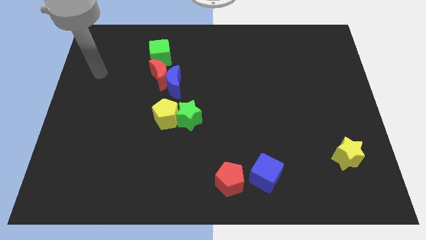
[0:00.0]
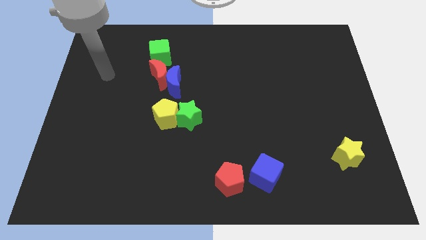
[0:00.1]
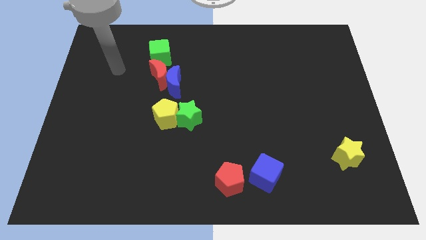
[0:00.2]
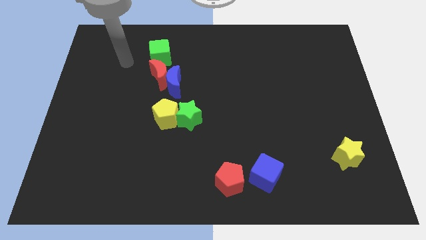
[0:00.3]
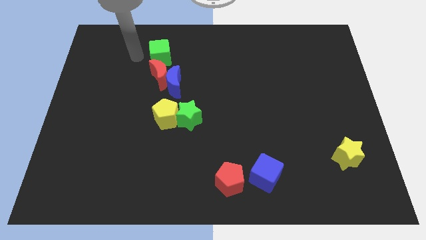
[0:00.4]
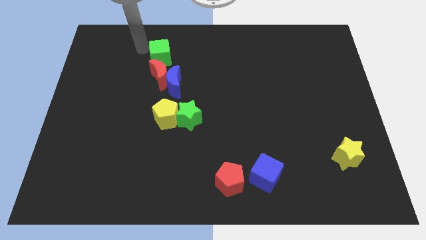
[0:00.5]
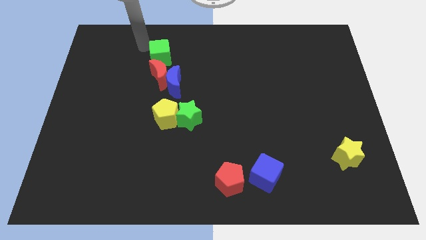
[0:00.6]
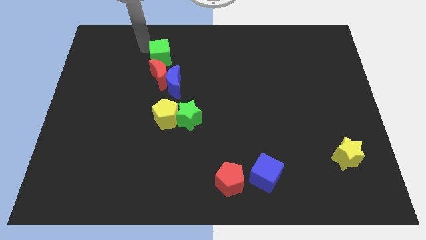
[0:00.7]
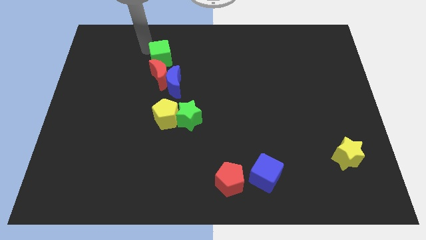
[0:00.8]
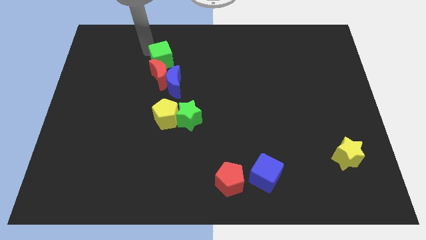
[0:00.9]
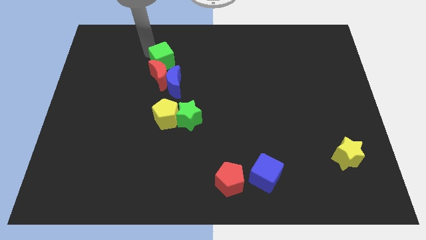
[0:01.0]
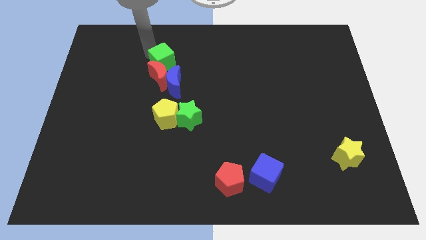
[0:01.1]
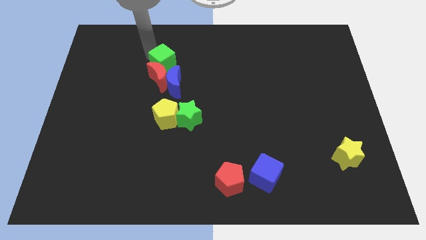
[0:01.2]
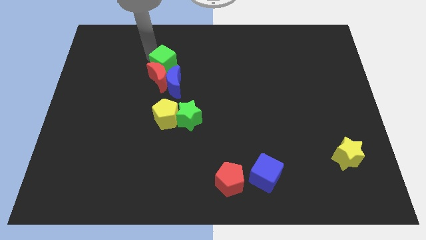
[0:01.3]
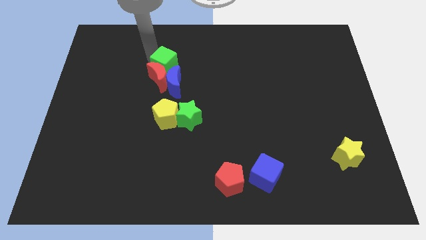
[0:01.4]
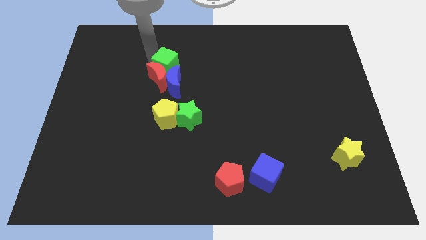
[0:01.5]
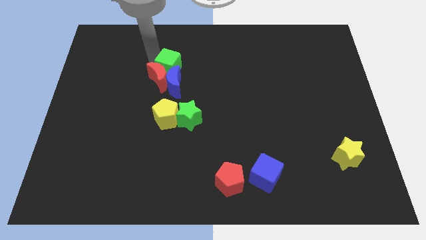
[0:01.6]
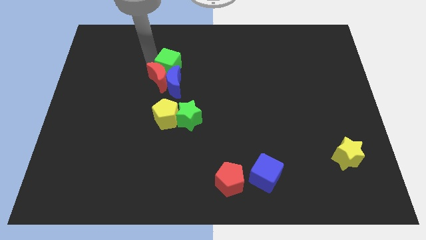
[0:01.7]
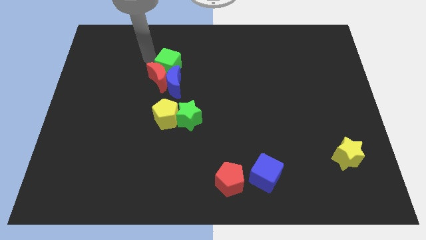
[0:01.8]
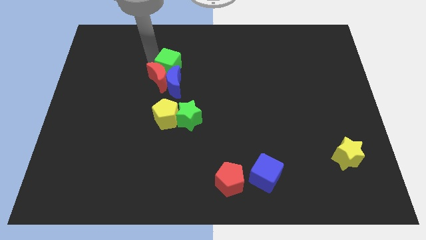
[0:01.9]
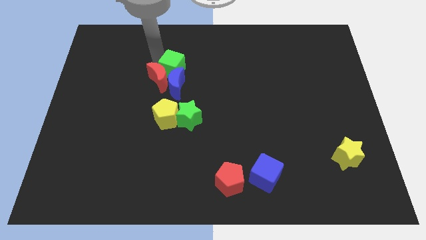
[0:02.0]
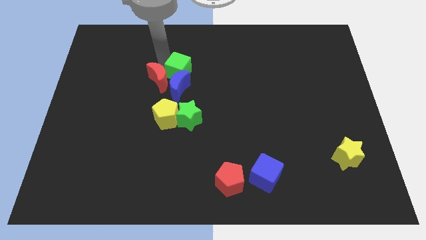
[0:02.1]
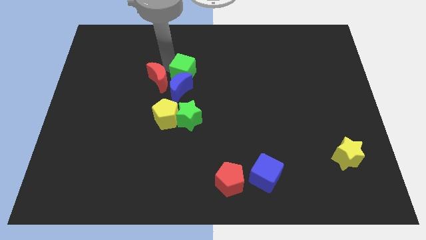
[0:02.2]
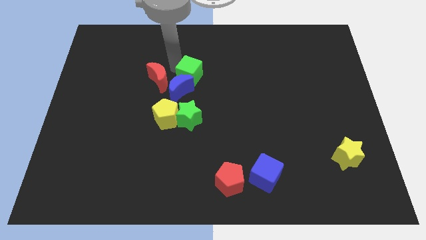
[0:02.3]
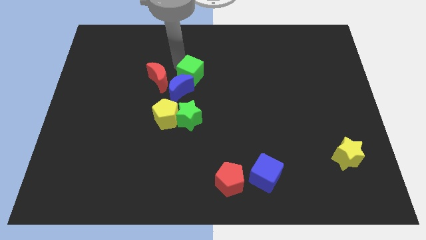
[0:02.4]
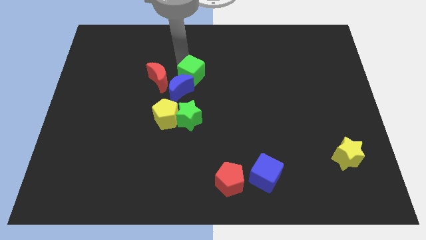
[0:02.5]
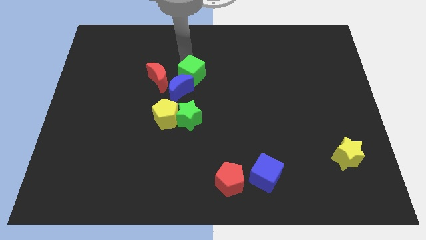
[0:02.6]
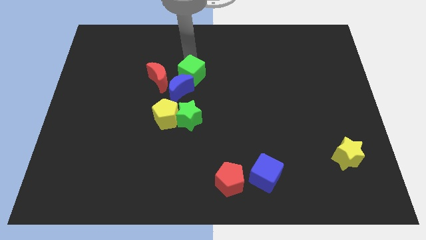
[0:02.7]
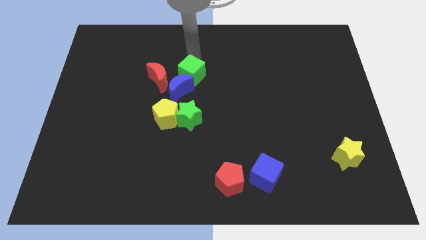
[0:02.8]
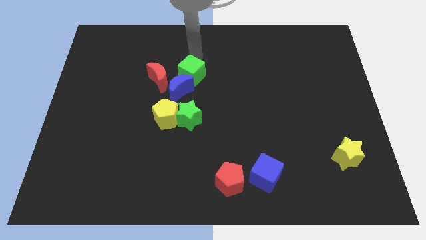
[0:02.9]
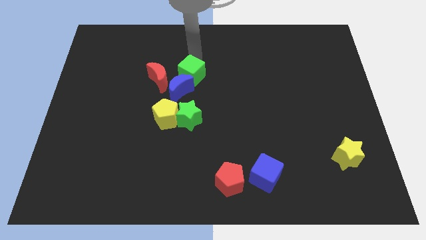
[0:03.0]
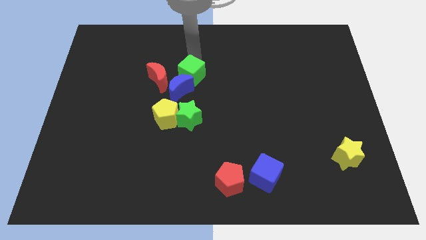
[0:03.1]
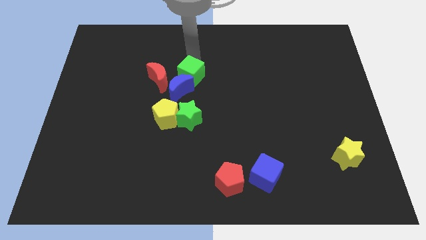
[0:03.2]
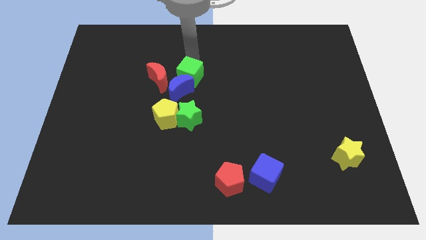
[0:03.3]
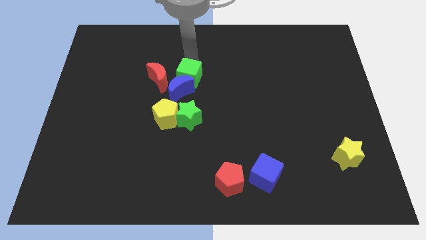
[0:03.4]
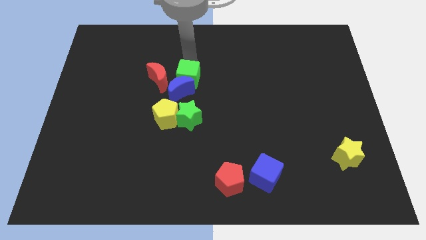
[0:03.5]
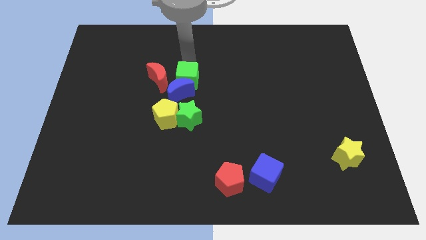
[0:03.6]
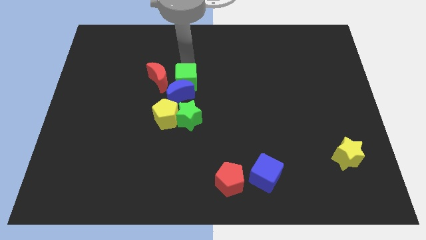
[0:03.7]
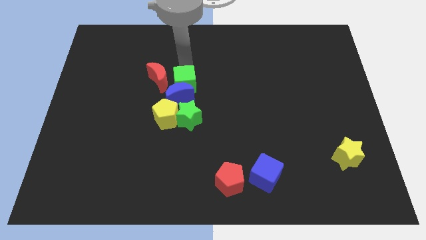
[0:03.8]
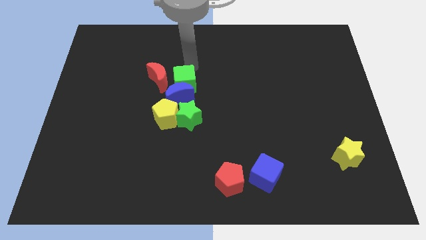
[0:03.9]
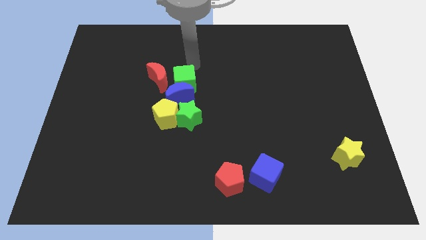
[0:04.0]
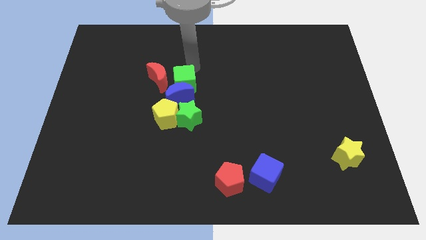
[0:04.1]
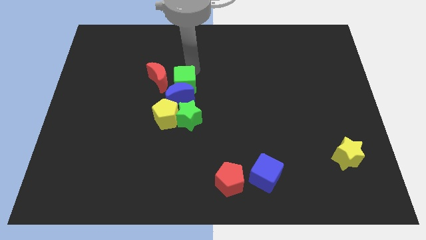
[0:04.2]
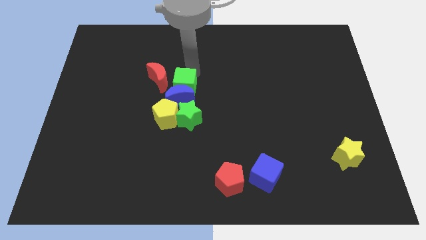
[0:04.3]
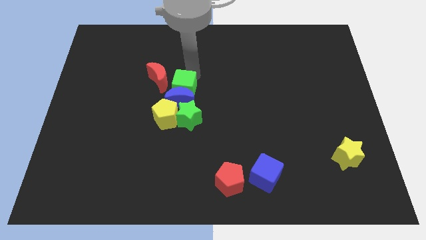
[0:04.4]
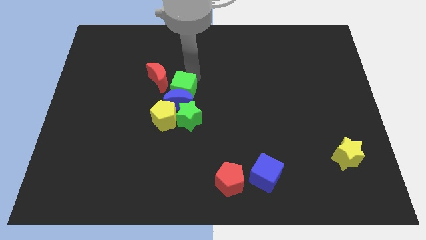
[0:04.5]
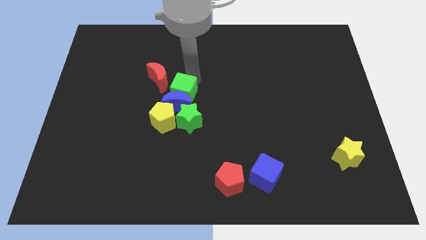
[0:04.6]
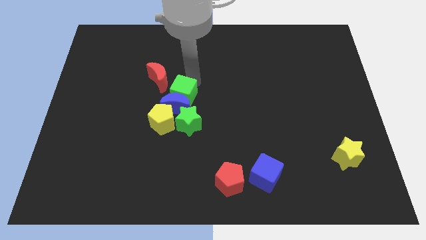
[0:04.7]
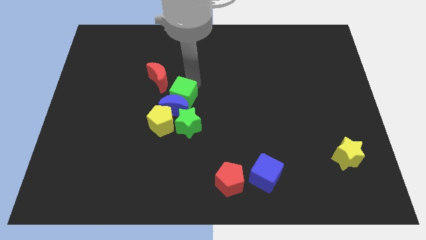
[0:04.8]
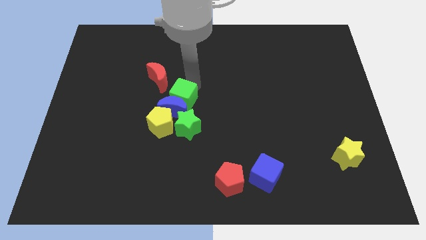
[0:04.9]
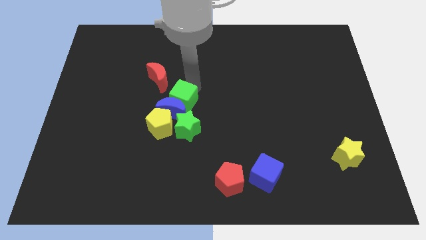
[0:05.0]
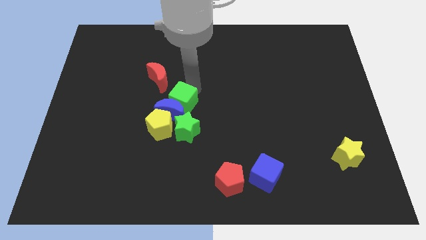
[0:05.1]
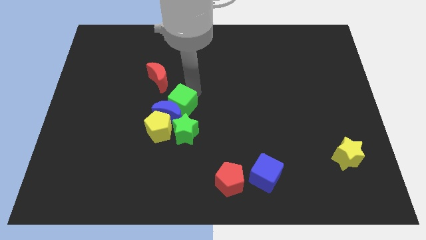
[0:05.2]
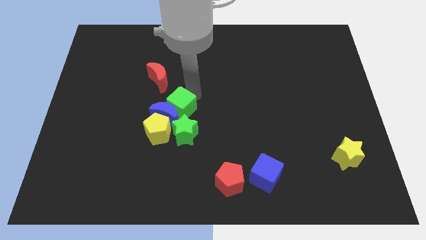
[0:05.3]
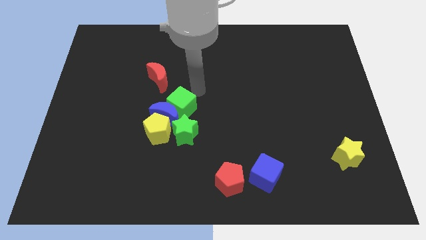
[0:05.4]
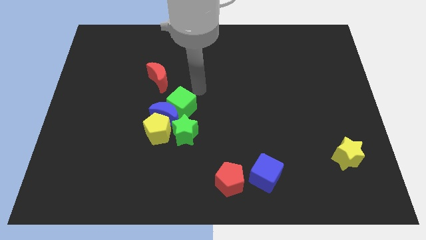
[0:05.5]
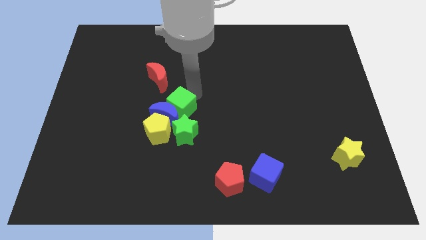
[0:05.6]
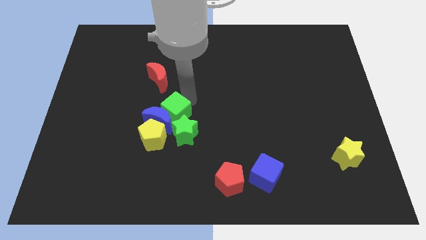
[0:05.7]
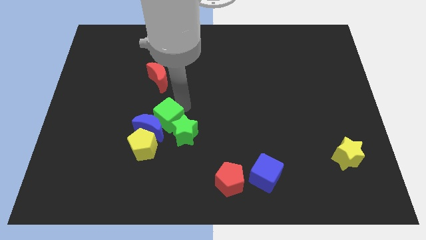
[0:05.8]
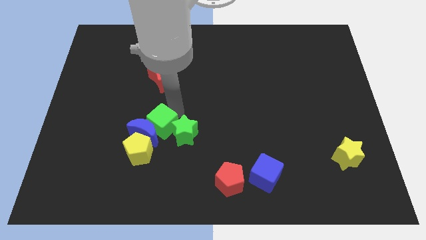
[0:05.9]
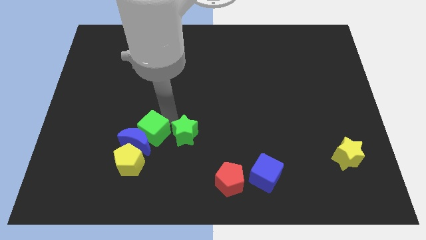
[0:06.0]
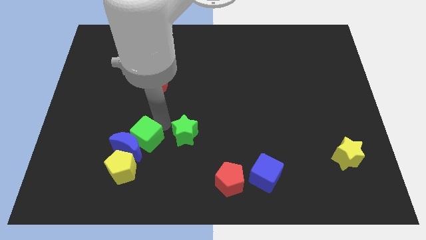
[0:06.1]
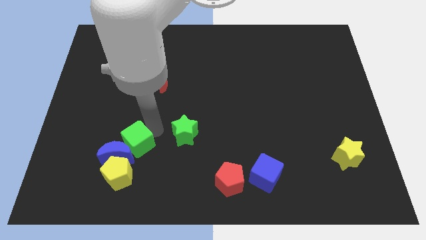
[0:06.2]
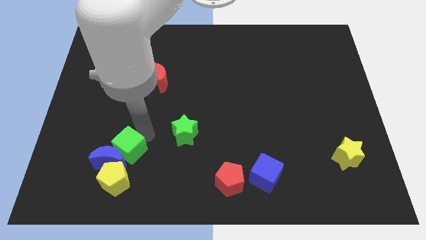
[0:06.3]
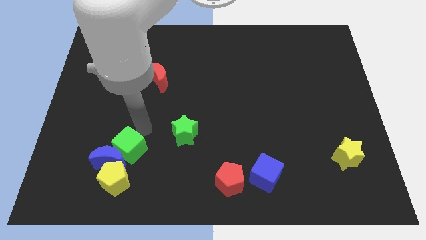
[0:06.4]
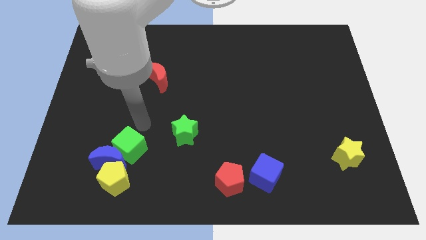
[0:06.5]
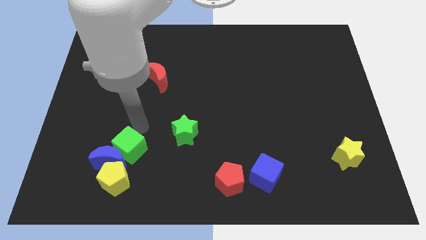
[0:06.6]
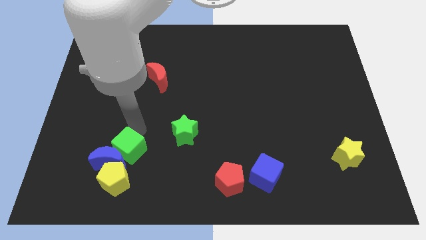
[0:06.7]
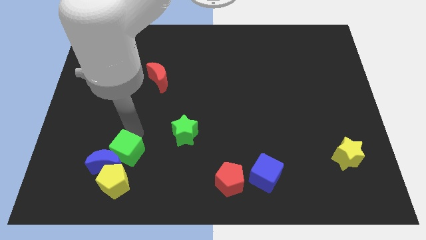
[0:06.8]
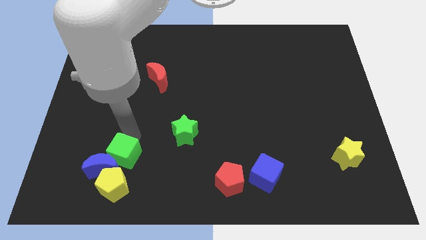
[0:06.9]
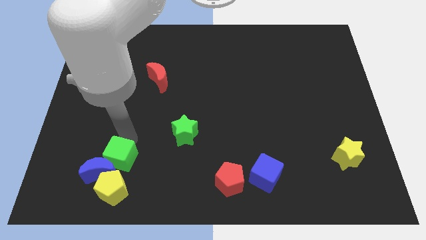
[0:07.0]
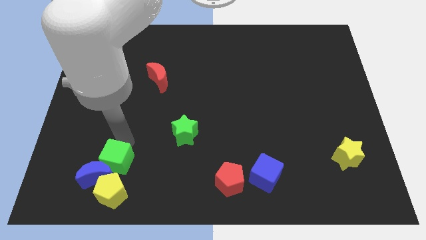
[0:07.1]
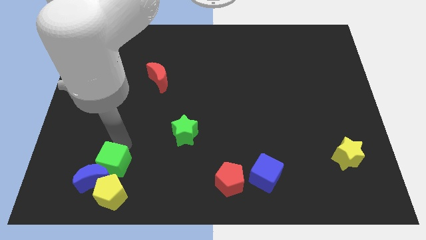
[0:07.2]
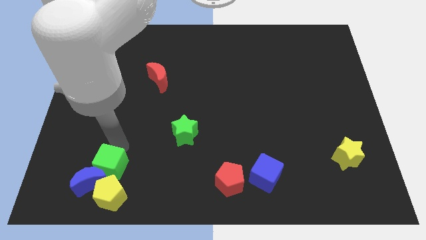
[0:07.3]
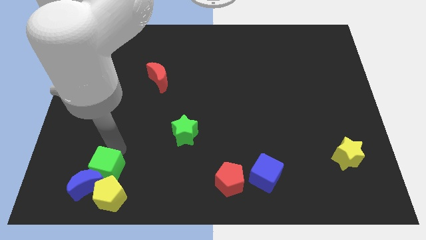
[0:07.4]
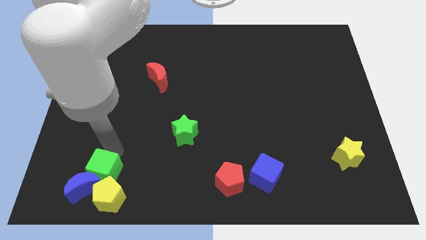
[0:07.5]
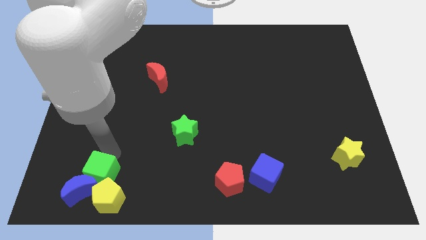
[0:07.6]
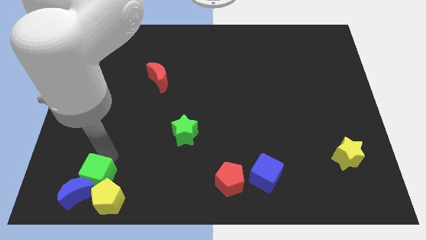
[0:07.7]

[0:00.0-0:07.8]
move the green cube to the yellow pentagon
